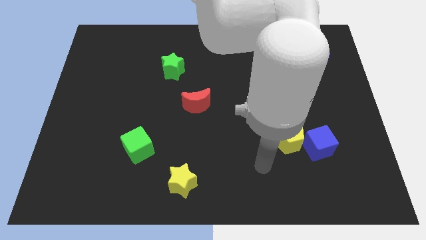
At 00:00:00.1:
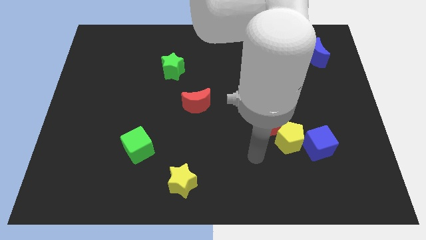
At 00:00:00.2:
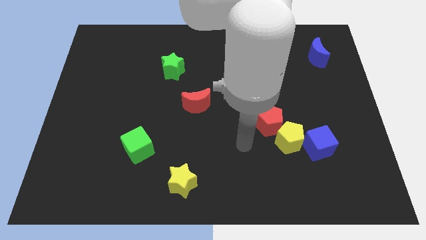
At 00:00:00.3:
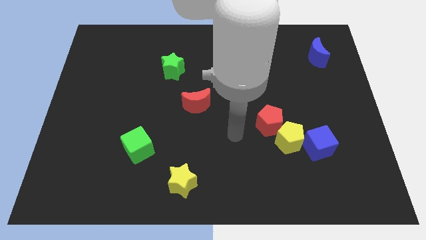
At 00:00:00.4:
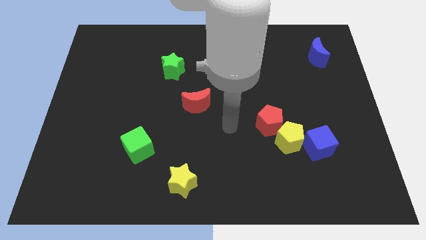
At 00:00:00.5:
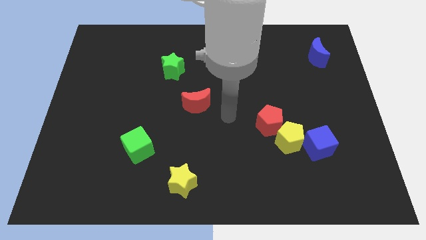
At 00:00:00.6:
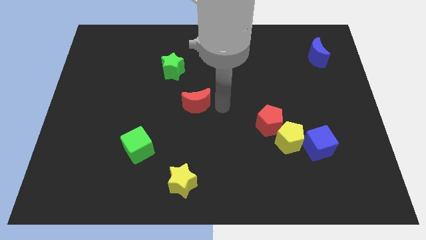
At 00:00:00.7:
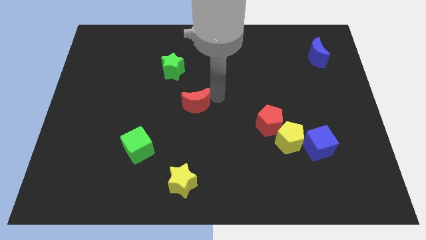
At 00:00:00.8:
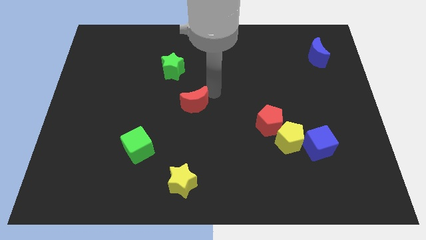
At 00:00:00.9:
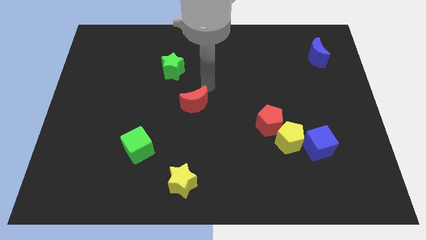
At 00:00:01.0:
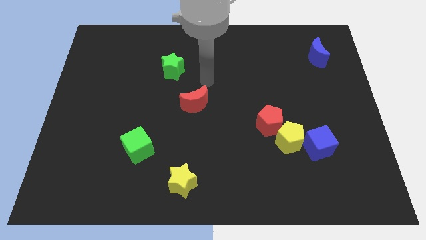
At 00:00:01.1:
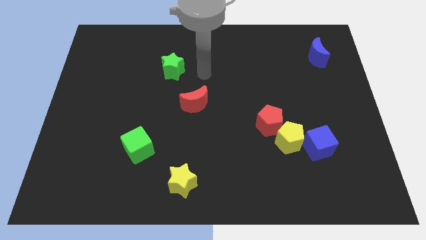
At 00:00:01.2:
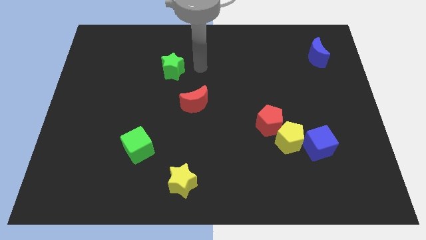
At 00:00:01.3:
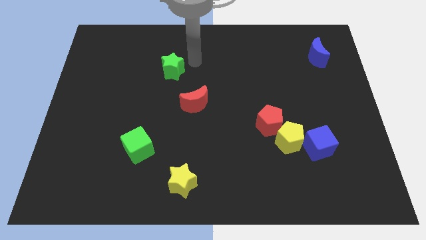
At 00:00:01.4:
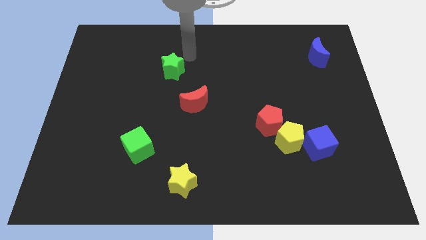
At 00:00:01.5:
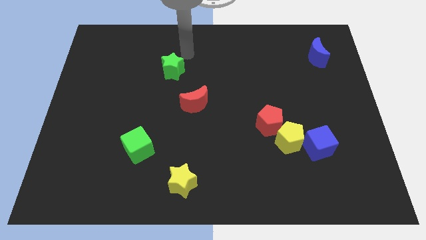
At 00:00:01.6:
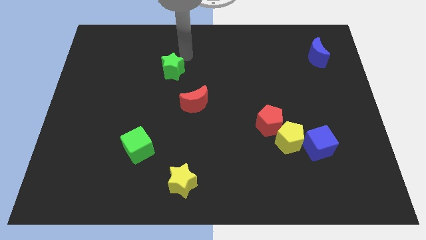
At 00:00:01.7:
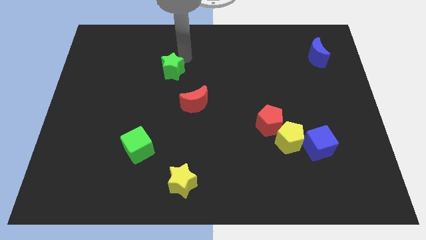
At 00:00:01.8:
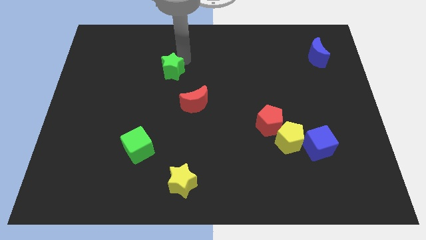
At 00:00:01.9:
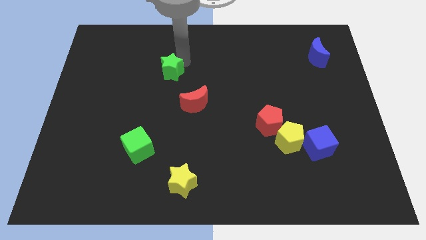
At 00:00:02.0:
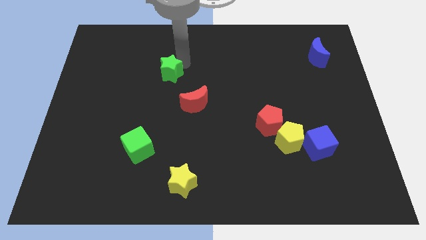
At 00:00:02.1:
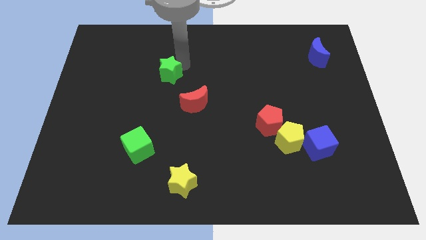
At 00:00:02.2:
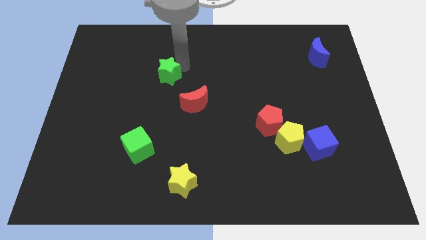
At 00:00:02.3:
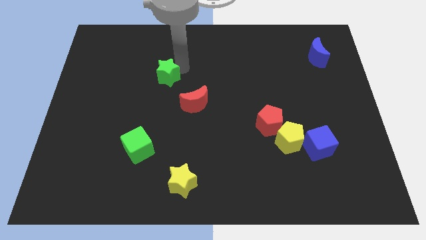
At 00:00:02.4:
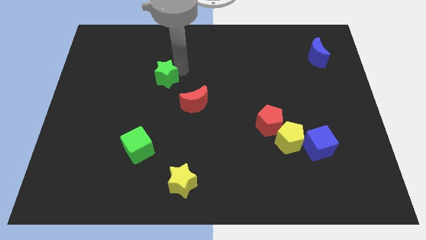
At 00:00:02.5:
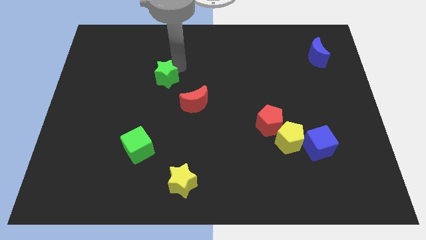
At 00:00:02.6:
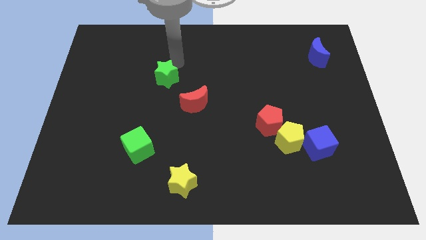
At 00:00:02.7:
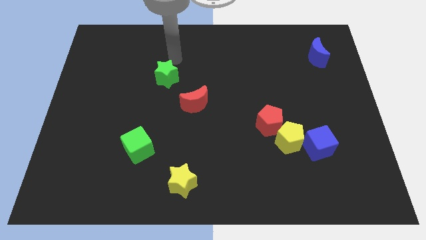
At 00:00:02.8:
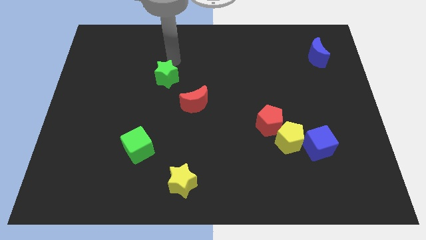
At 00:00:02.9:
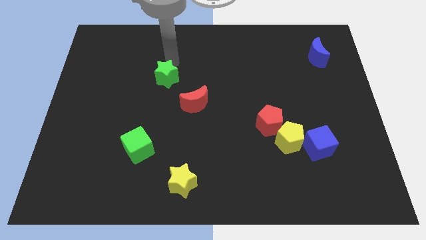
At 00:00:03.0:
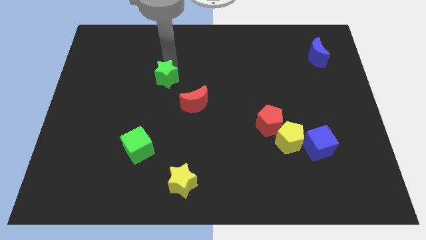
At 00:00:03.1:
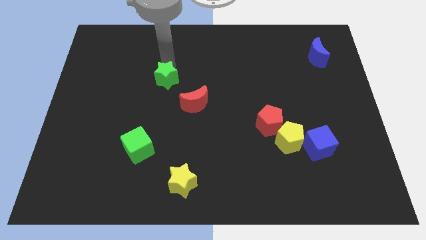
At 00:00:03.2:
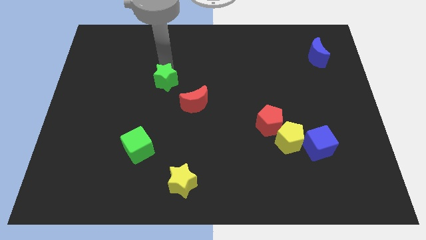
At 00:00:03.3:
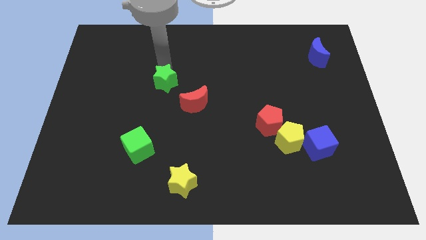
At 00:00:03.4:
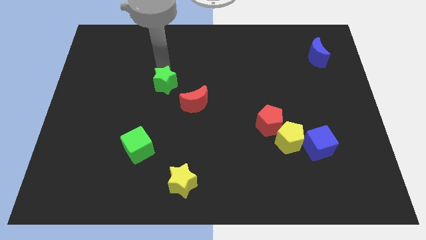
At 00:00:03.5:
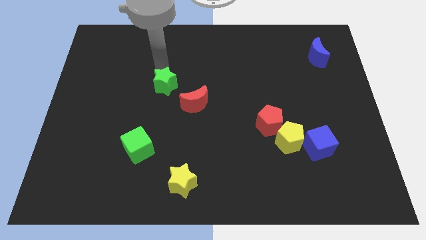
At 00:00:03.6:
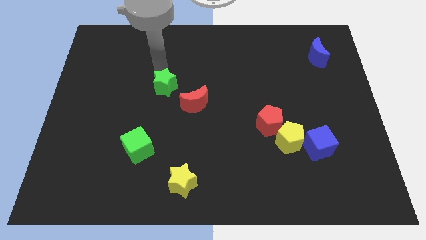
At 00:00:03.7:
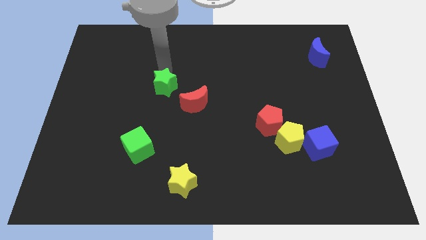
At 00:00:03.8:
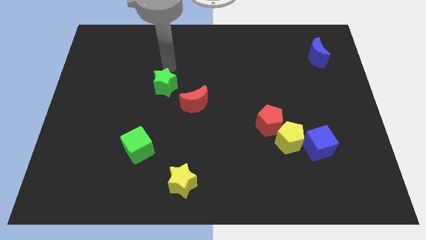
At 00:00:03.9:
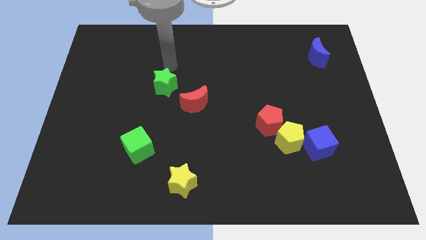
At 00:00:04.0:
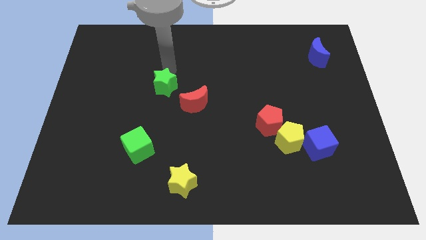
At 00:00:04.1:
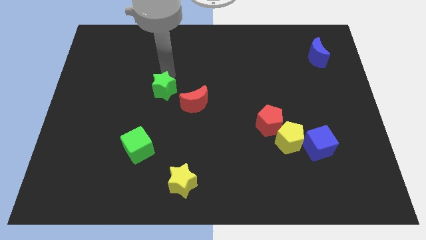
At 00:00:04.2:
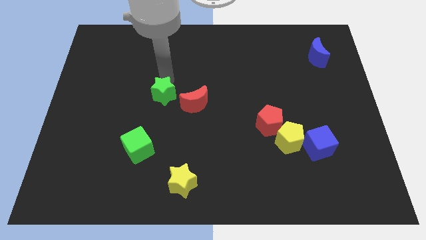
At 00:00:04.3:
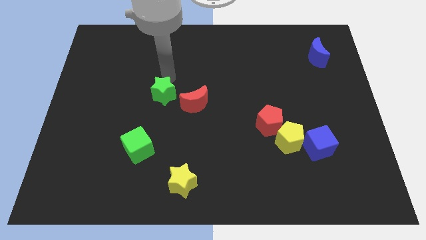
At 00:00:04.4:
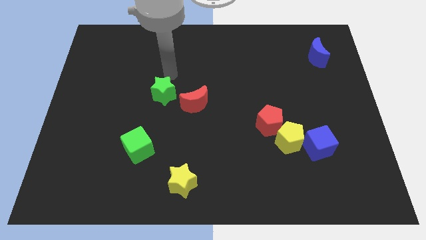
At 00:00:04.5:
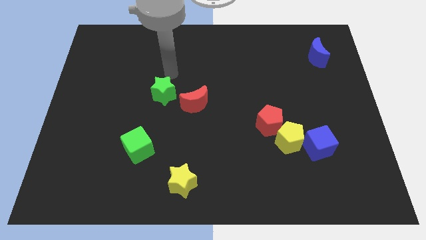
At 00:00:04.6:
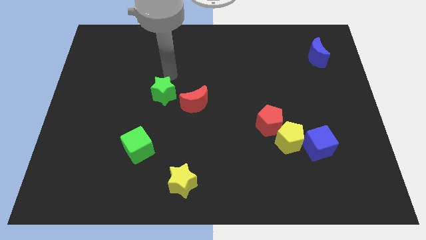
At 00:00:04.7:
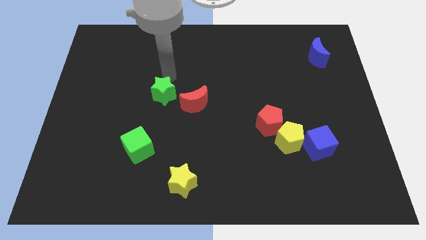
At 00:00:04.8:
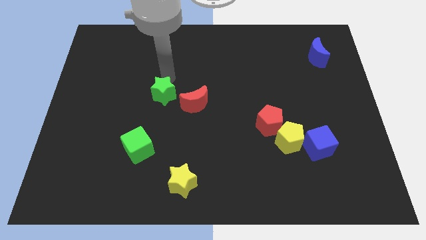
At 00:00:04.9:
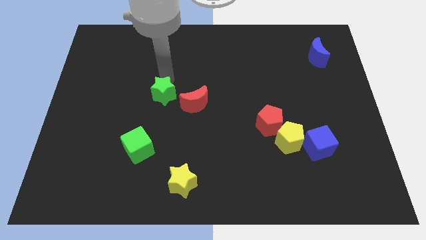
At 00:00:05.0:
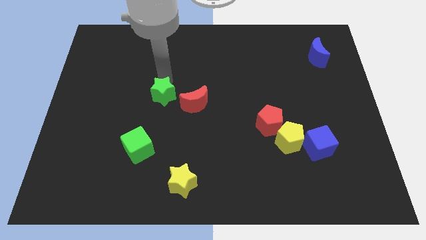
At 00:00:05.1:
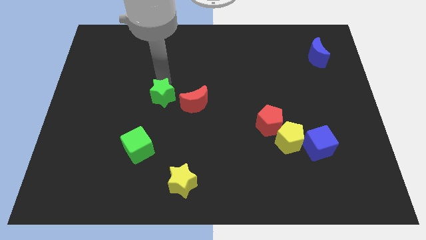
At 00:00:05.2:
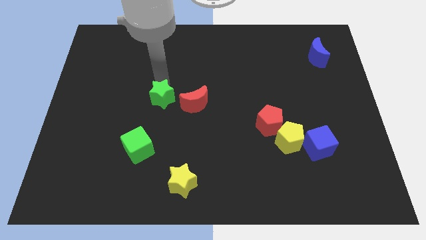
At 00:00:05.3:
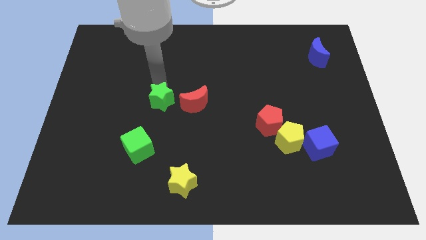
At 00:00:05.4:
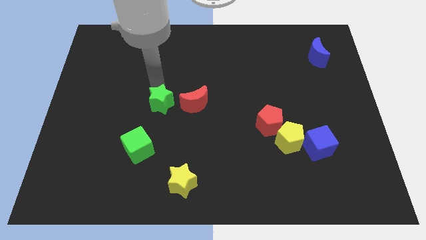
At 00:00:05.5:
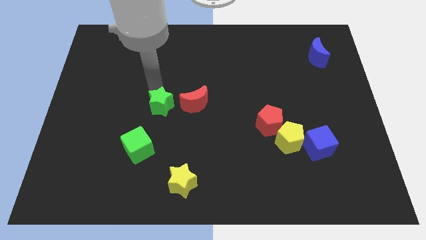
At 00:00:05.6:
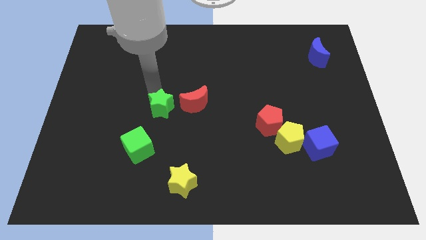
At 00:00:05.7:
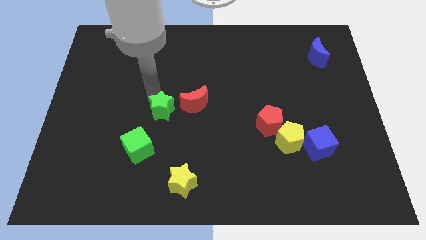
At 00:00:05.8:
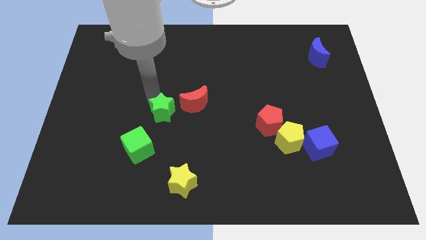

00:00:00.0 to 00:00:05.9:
slide the green star diagonally up and to the right of the green cube

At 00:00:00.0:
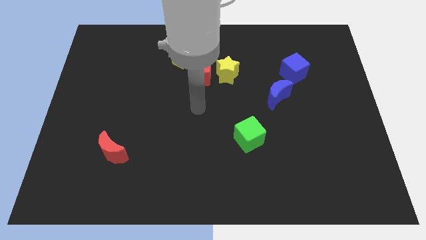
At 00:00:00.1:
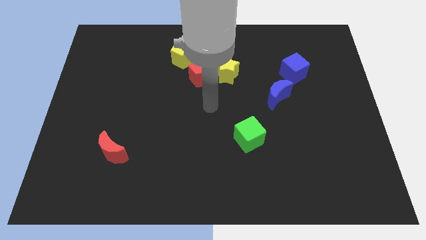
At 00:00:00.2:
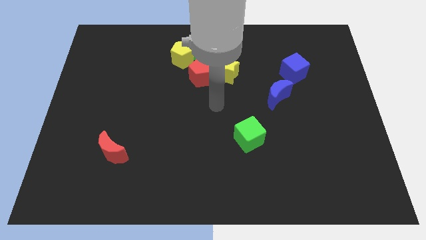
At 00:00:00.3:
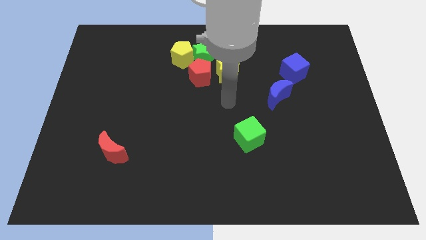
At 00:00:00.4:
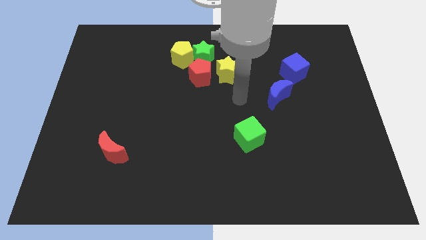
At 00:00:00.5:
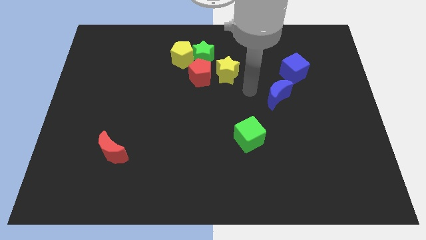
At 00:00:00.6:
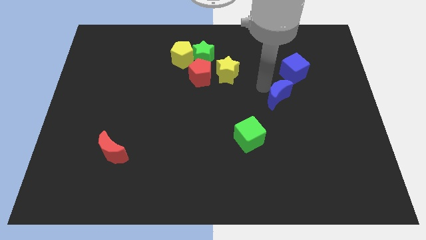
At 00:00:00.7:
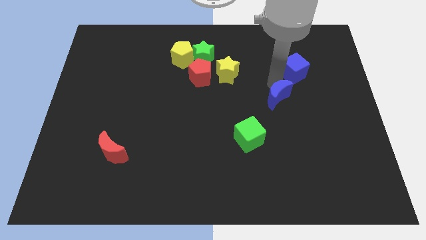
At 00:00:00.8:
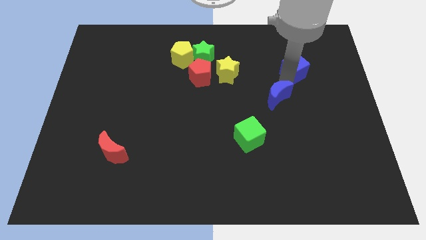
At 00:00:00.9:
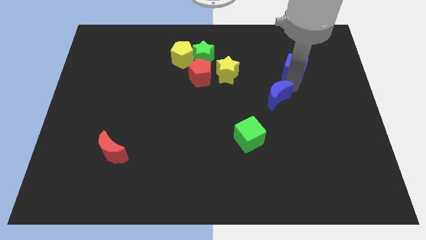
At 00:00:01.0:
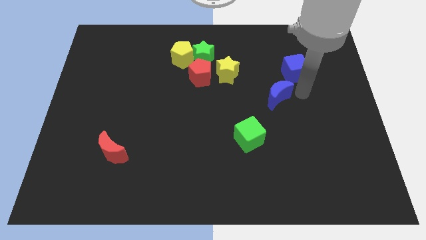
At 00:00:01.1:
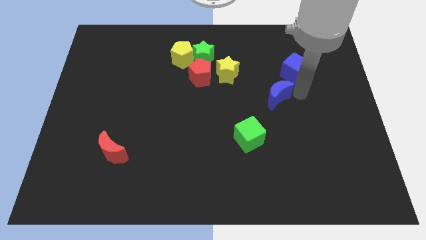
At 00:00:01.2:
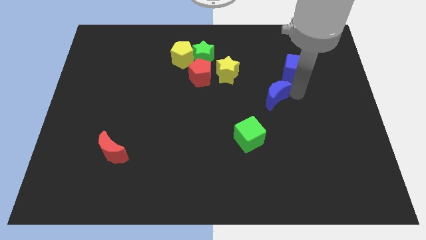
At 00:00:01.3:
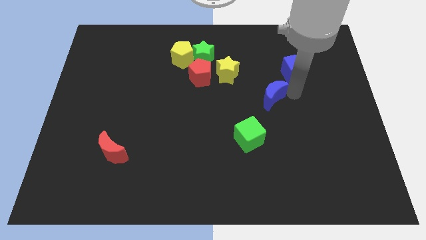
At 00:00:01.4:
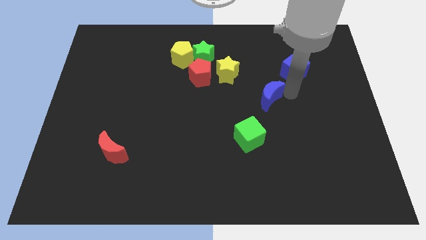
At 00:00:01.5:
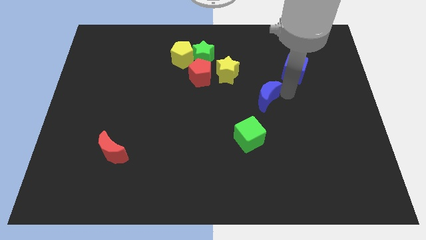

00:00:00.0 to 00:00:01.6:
move the blue moon above the green cube
